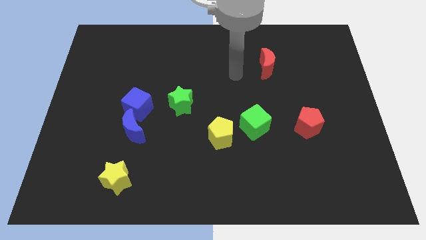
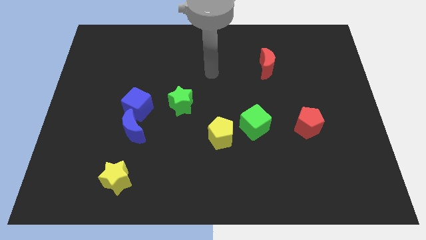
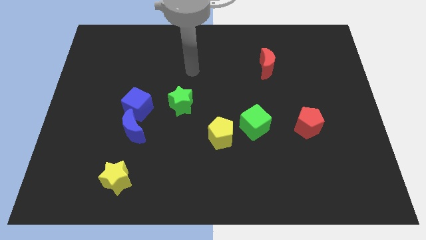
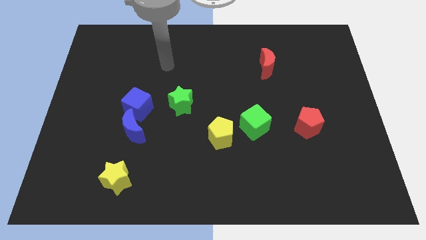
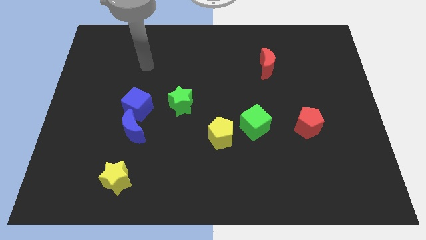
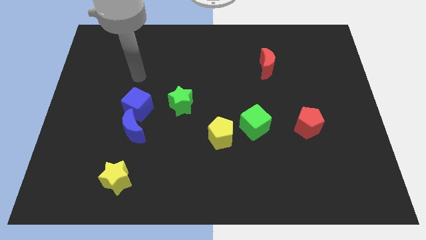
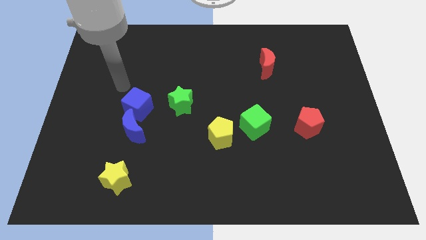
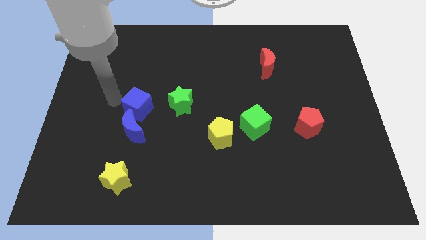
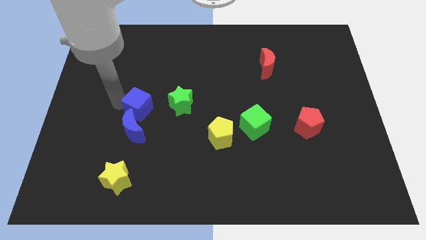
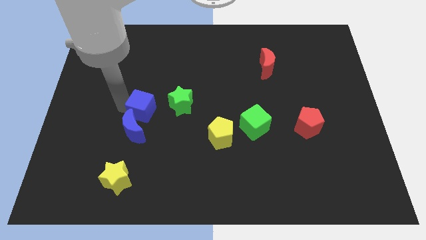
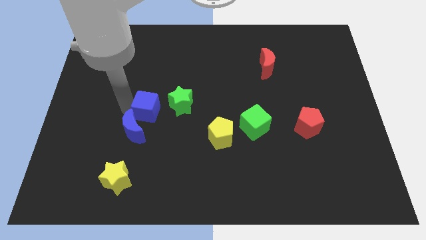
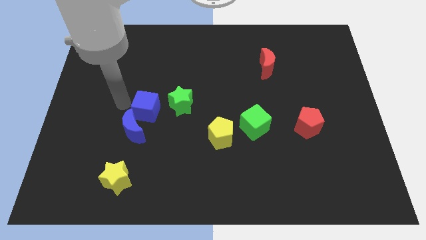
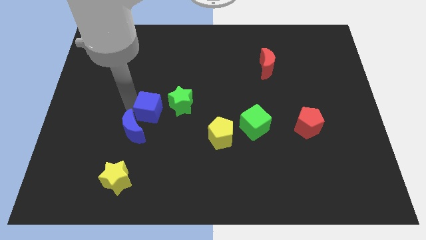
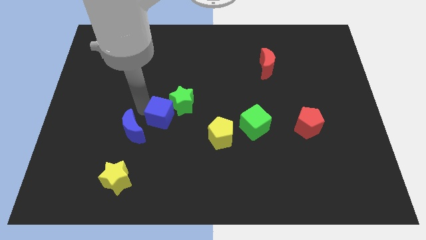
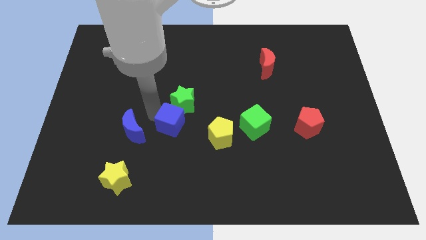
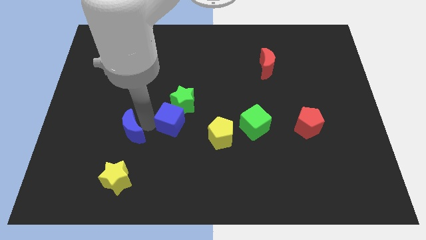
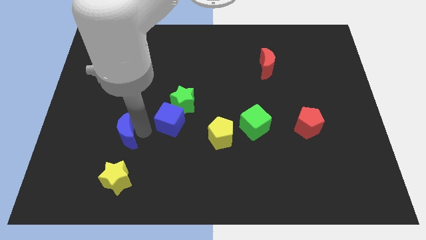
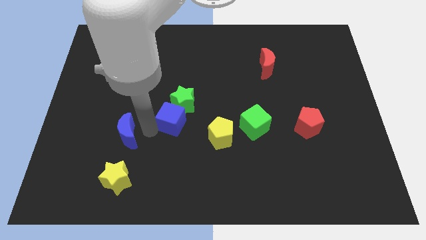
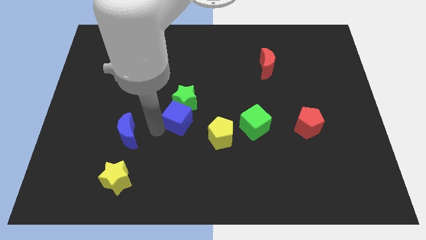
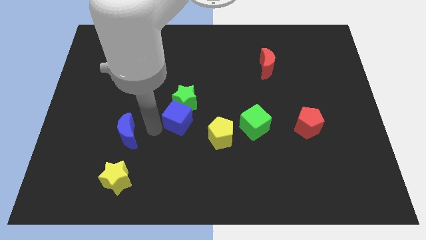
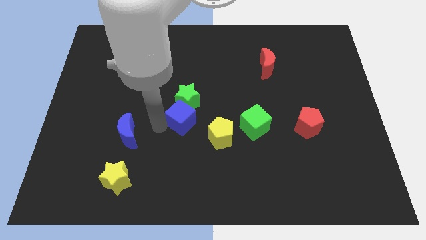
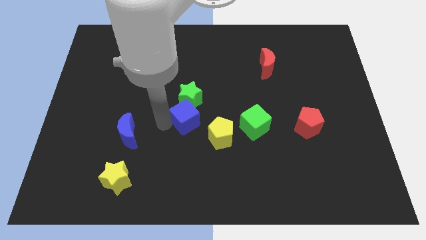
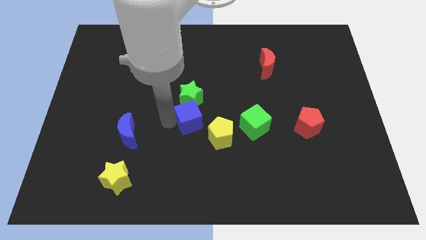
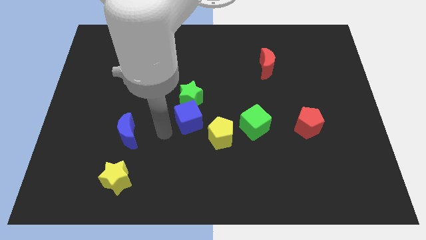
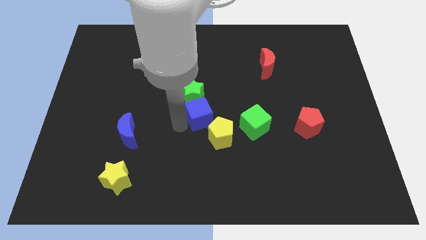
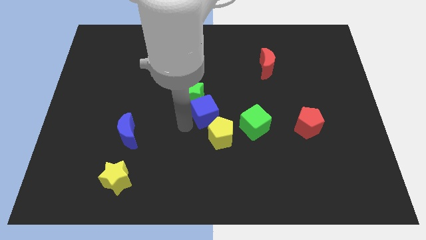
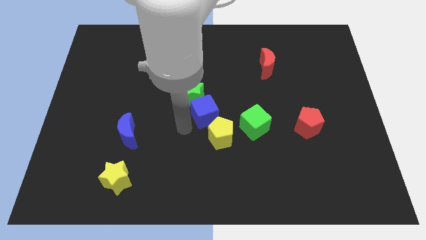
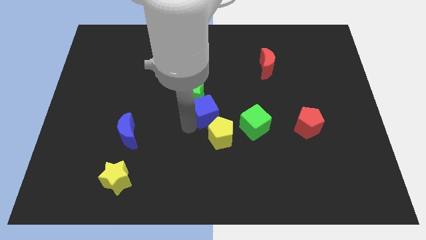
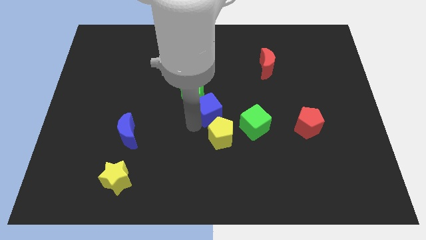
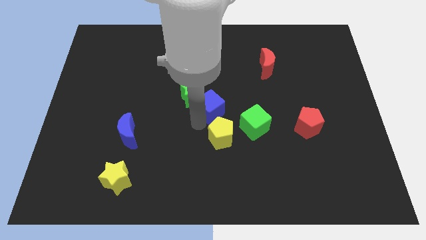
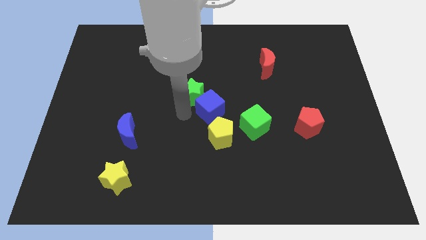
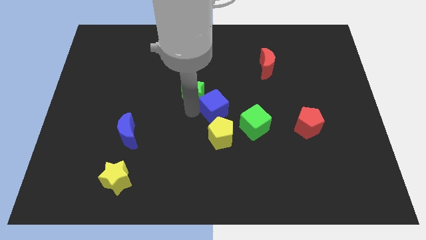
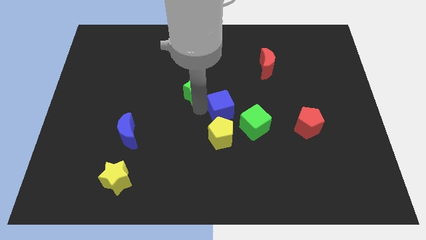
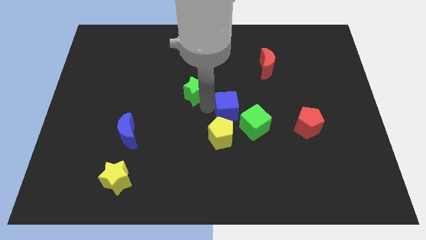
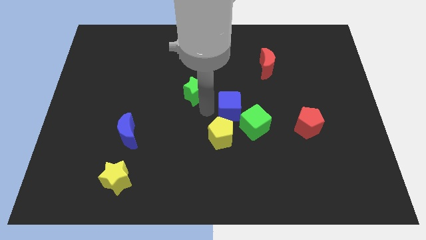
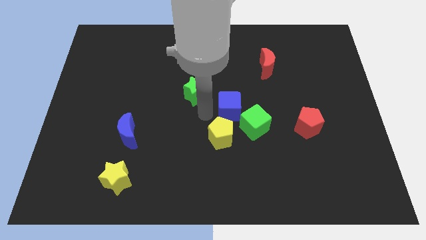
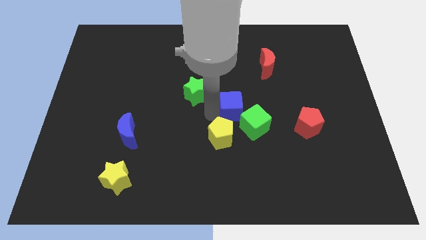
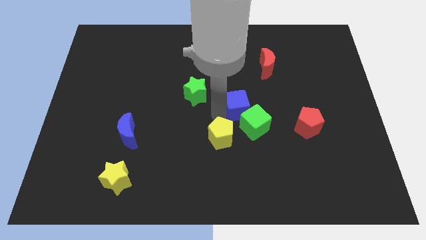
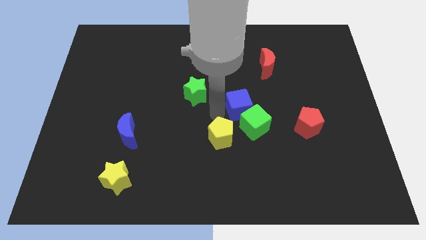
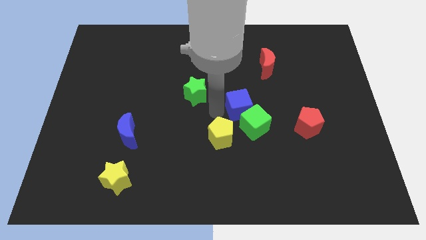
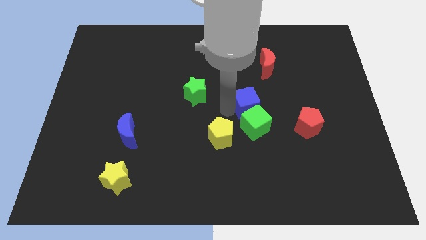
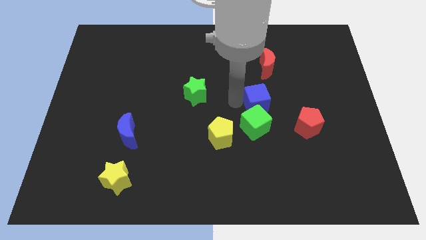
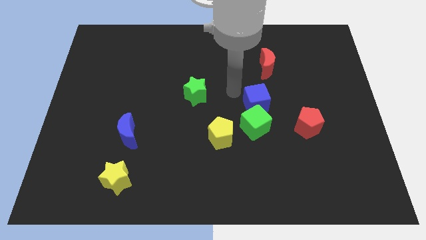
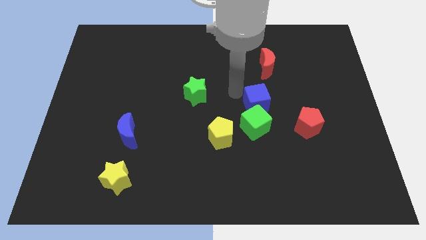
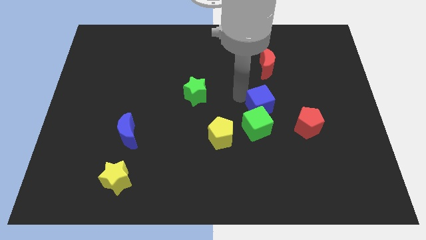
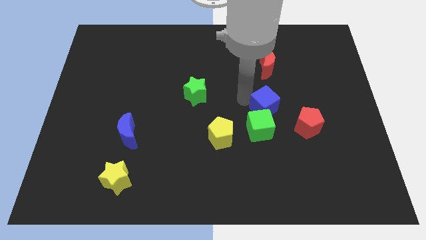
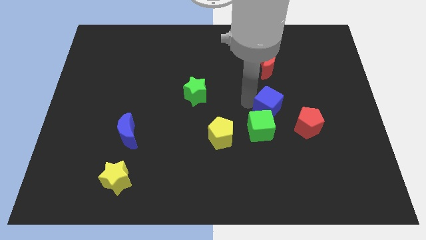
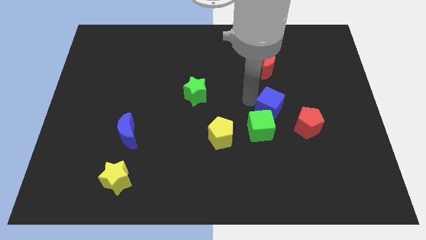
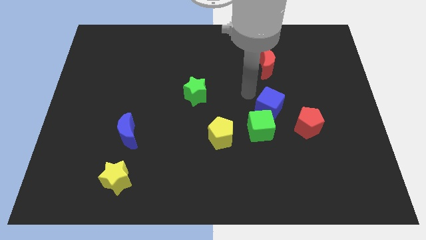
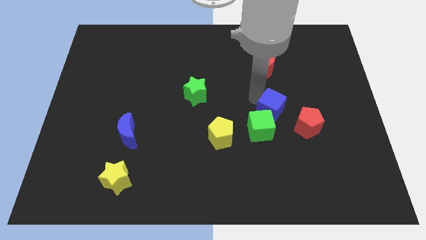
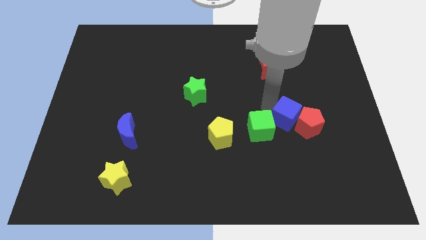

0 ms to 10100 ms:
move the blue cube next to the red pentagon

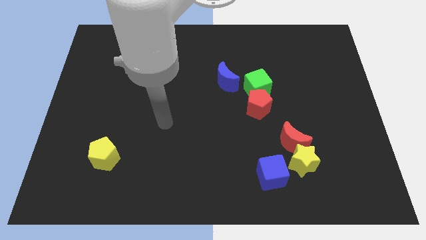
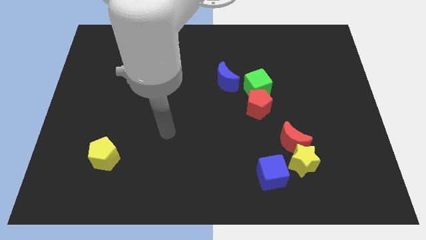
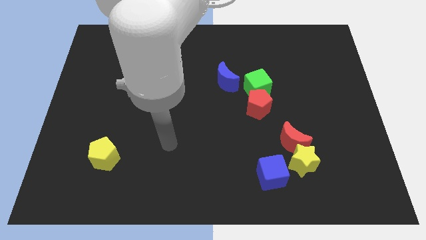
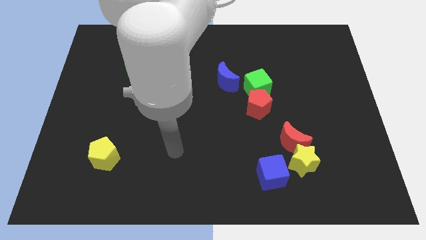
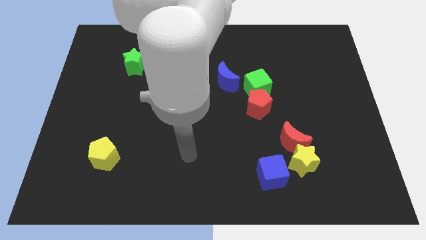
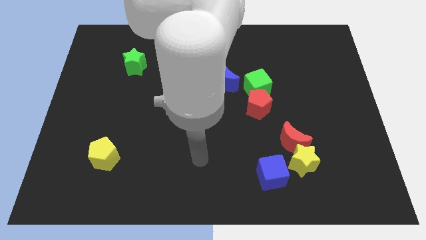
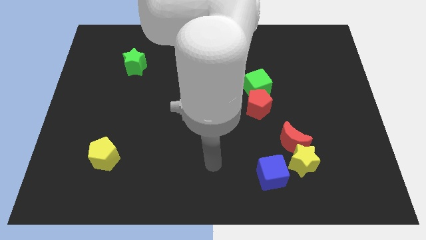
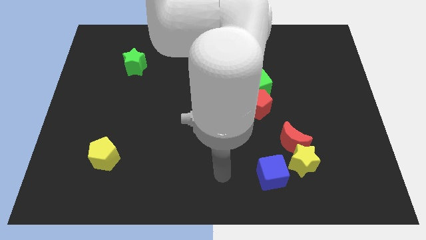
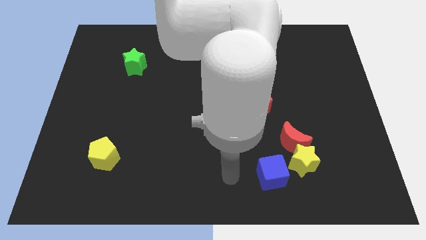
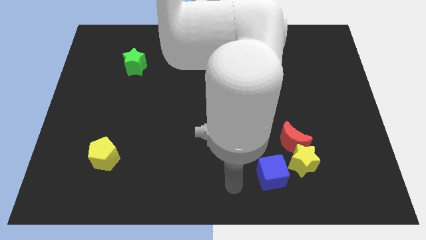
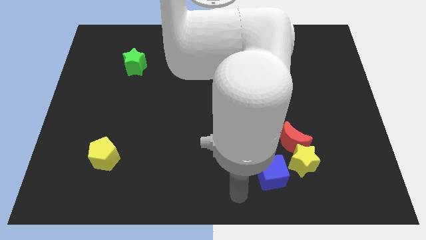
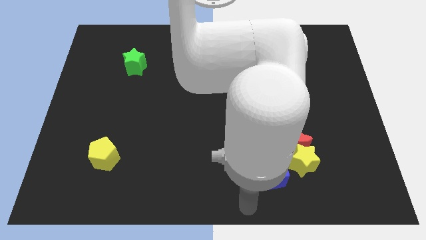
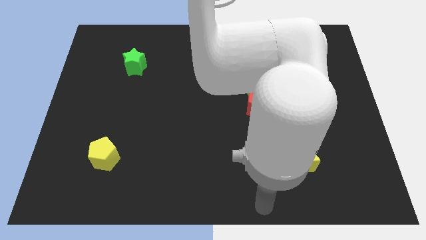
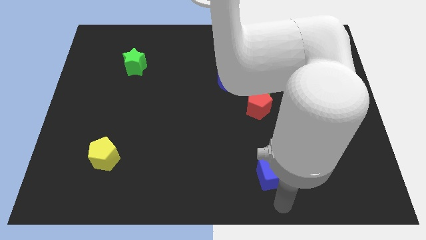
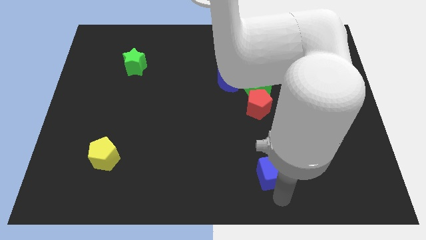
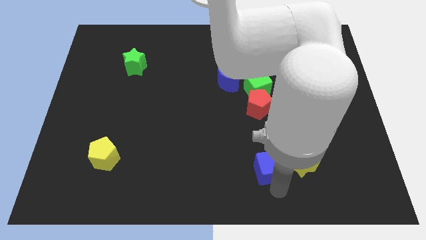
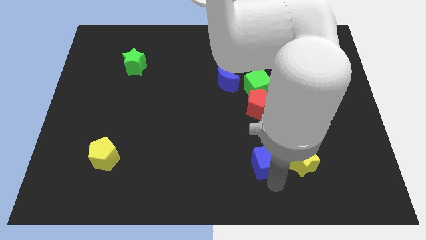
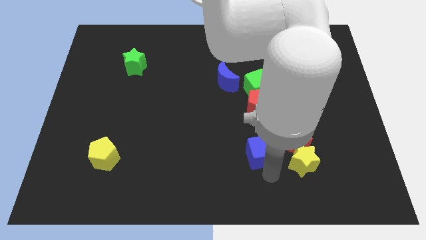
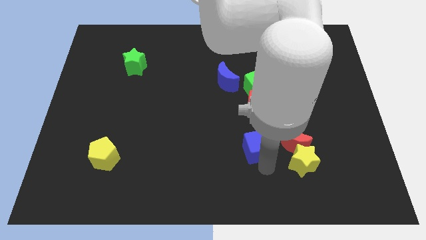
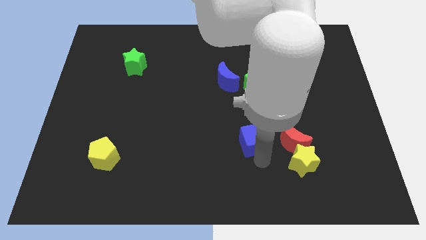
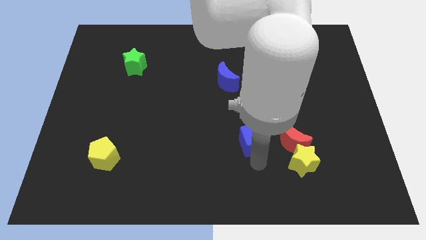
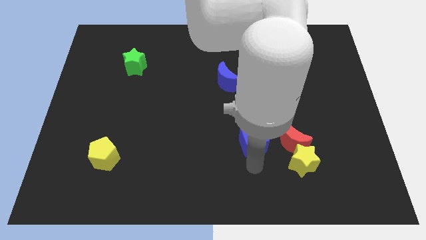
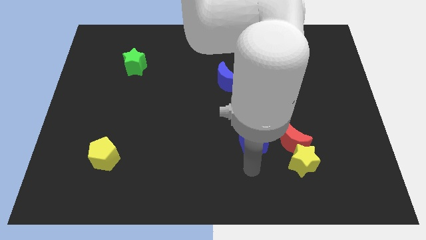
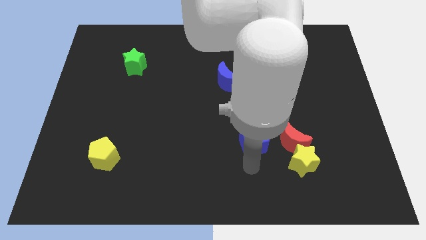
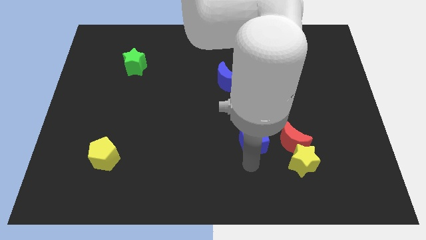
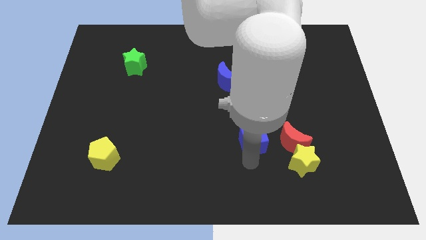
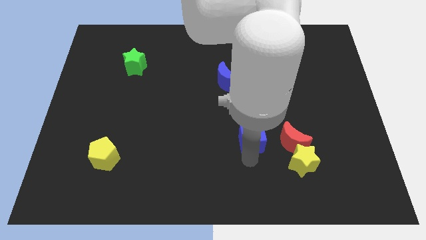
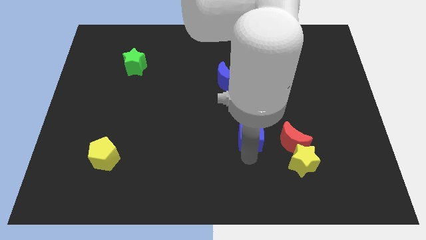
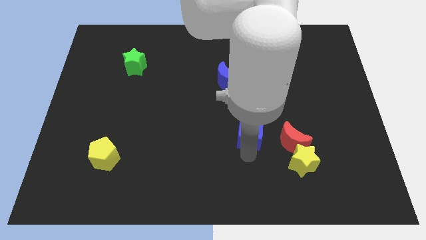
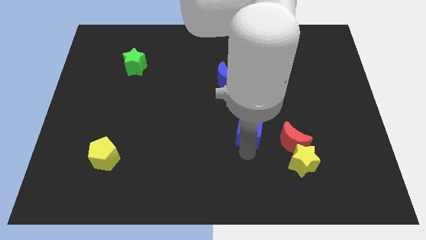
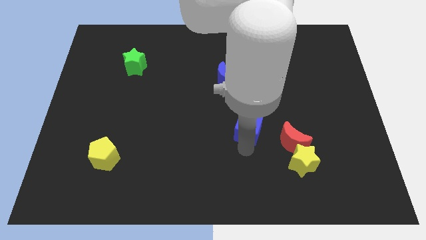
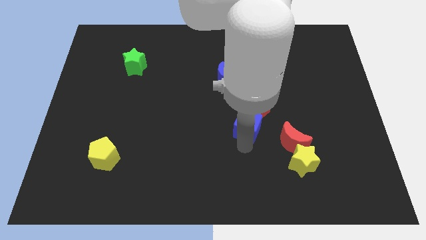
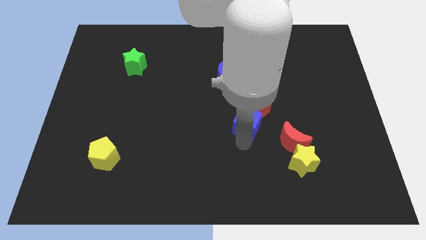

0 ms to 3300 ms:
put the blue cube to the red pentagon

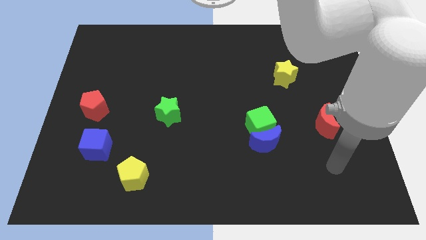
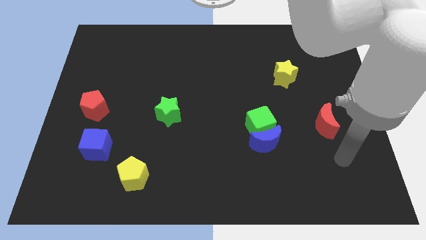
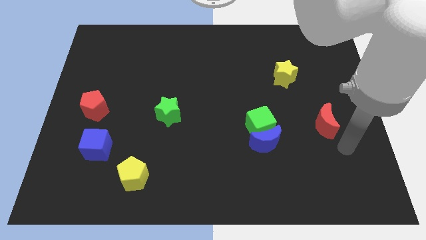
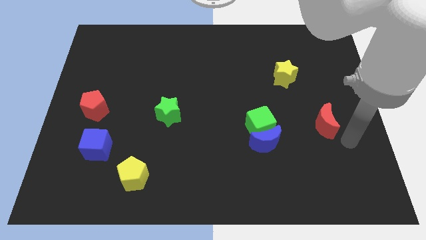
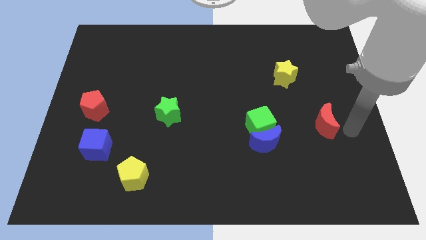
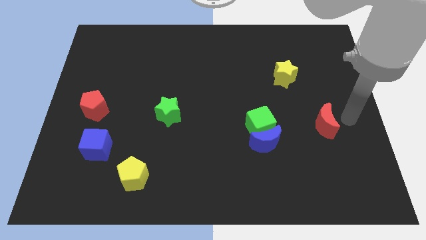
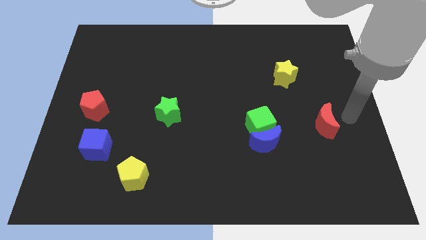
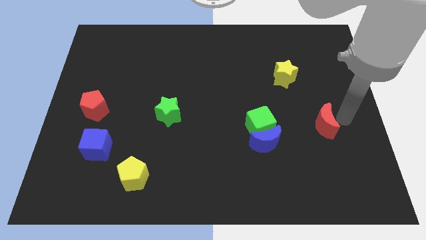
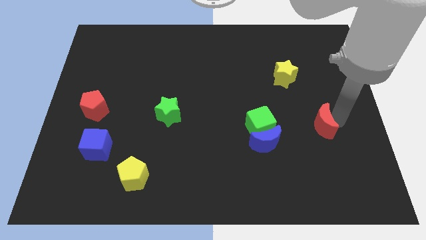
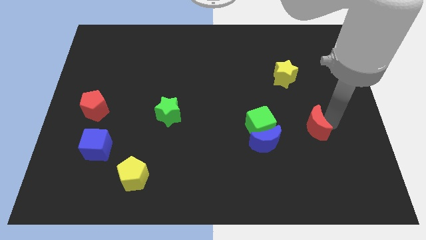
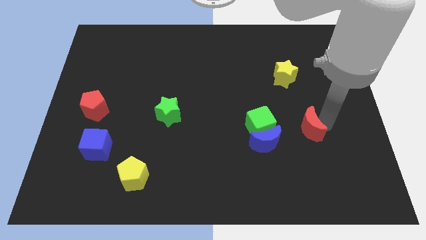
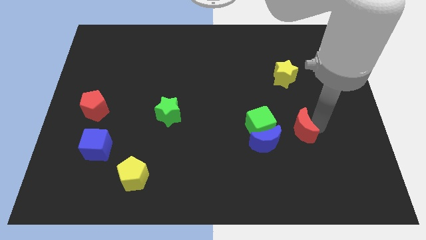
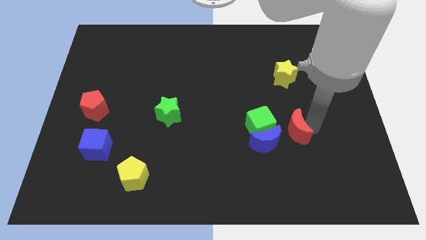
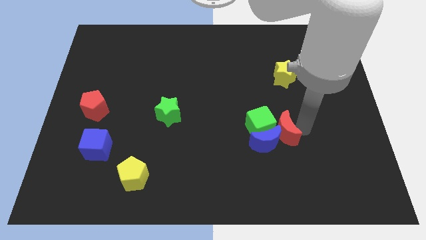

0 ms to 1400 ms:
push the red moon towards the blue moon
